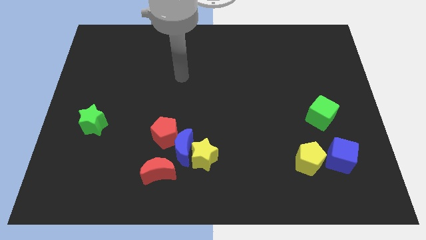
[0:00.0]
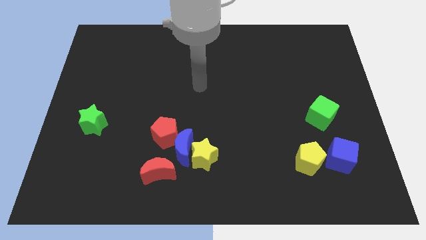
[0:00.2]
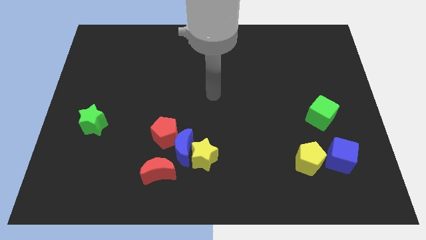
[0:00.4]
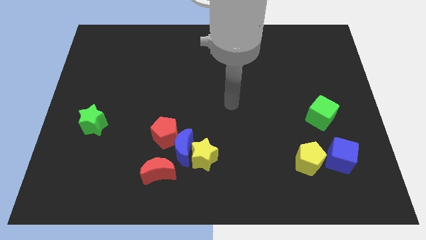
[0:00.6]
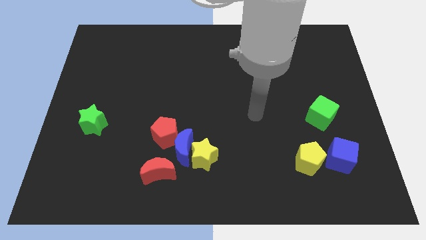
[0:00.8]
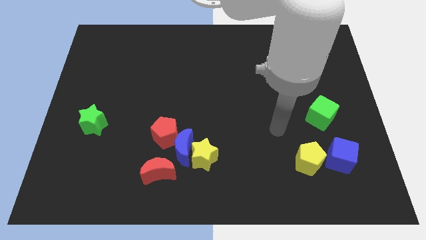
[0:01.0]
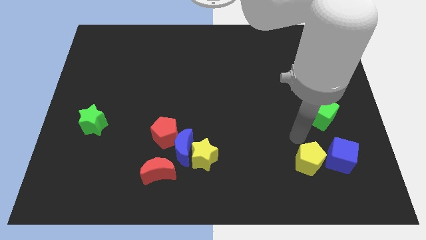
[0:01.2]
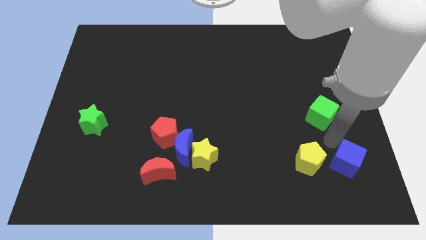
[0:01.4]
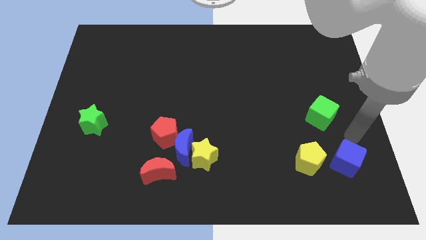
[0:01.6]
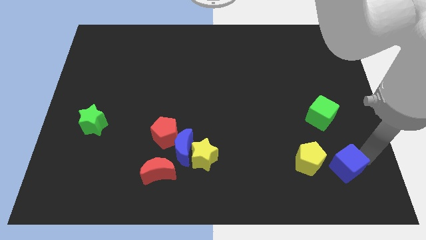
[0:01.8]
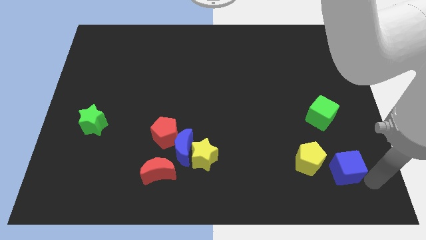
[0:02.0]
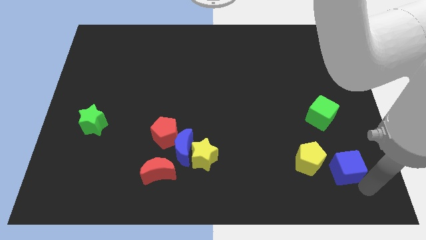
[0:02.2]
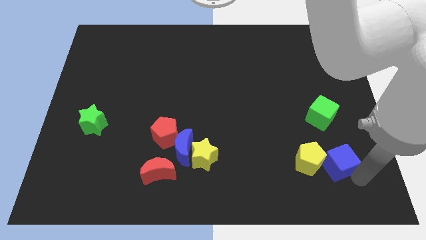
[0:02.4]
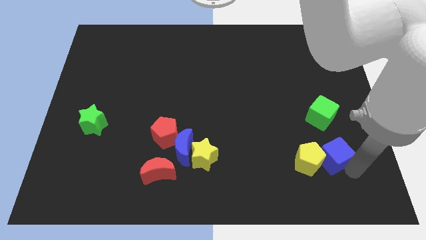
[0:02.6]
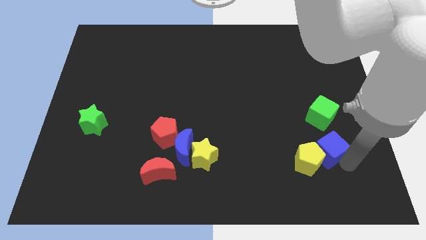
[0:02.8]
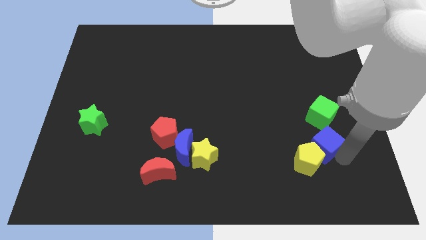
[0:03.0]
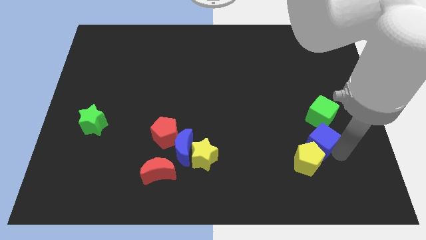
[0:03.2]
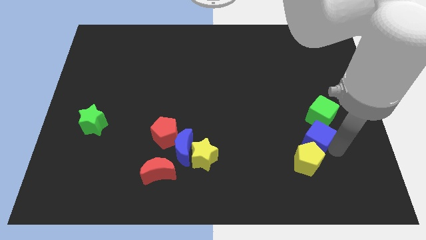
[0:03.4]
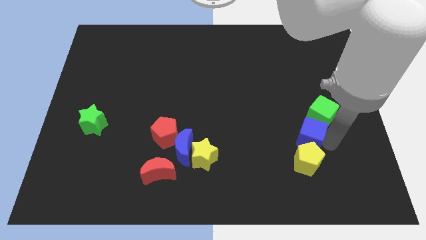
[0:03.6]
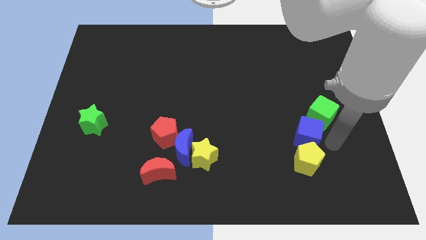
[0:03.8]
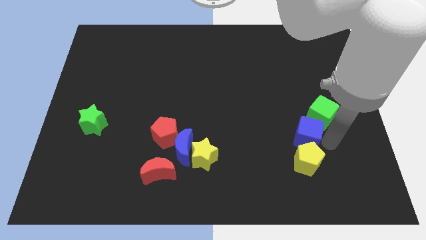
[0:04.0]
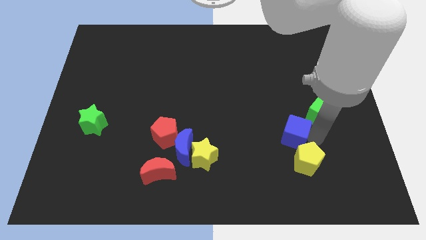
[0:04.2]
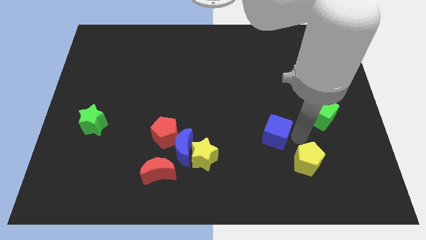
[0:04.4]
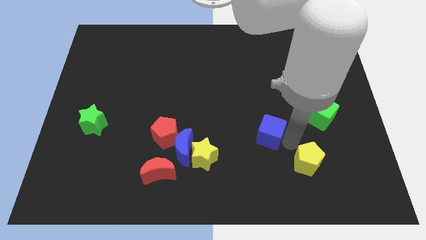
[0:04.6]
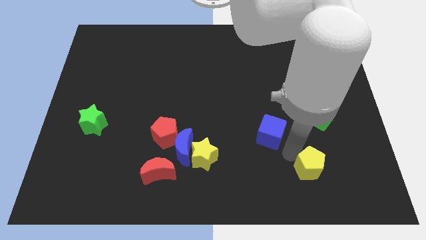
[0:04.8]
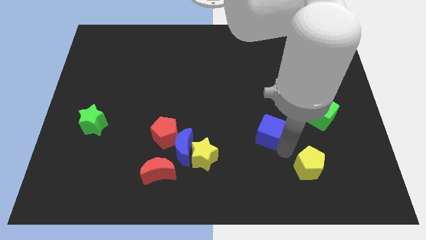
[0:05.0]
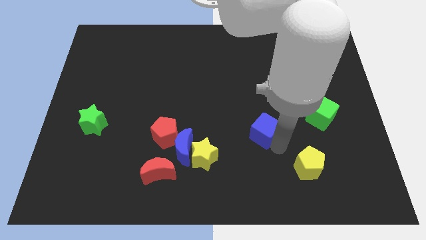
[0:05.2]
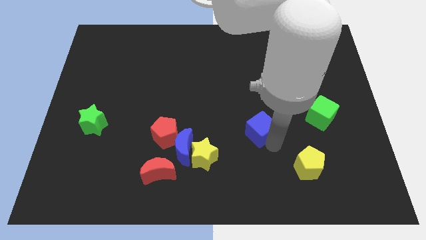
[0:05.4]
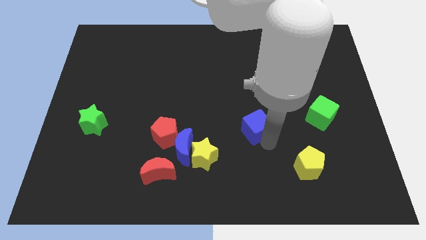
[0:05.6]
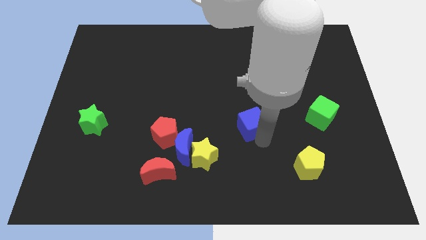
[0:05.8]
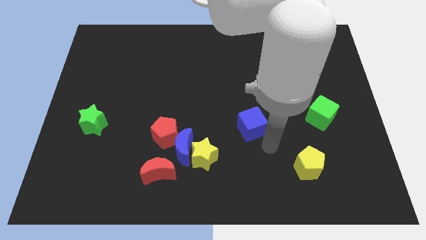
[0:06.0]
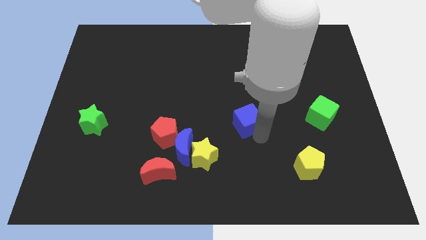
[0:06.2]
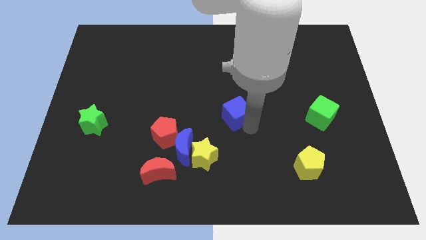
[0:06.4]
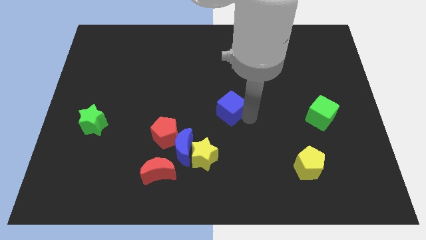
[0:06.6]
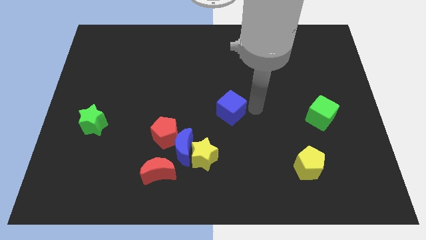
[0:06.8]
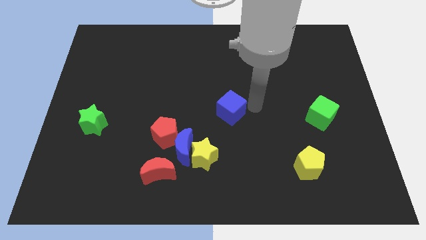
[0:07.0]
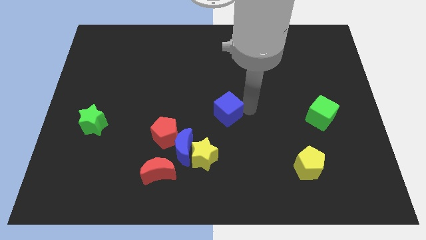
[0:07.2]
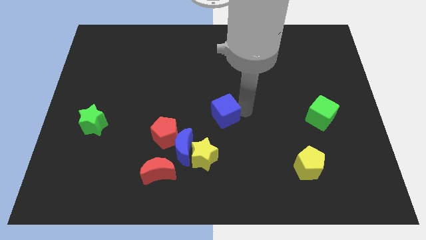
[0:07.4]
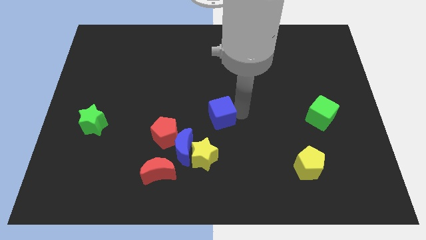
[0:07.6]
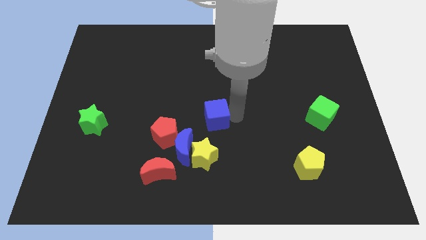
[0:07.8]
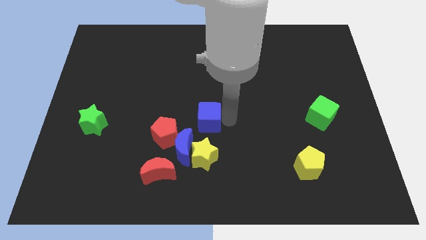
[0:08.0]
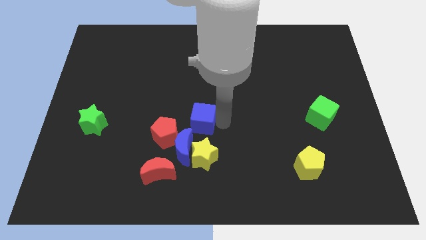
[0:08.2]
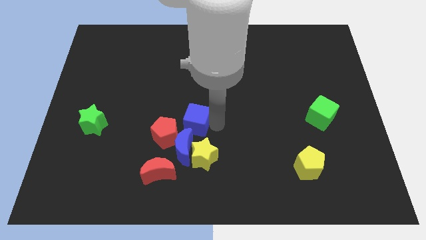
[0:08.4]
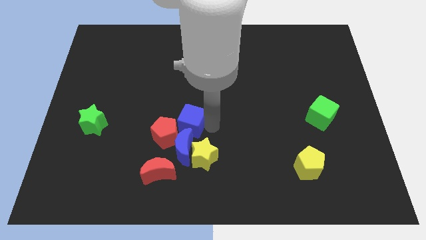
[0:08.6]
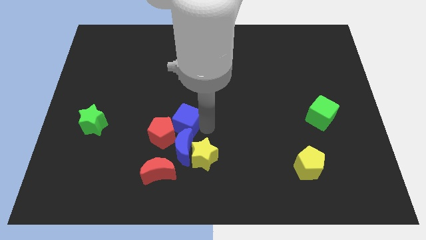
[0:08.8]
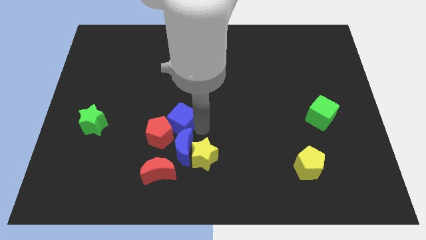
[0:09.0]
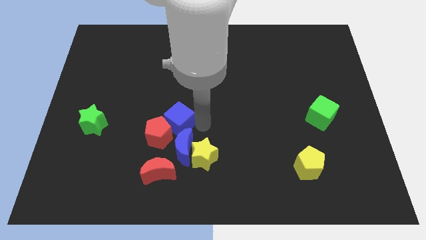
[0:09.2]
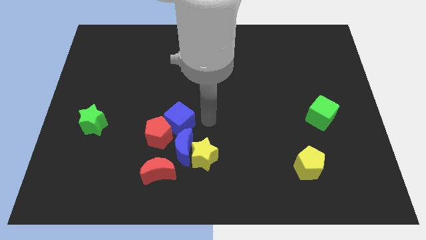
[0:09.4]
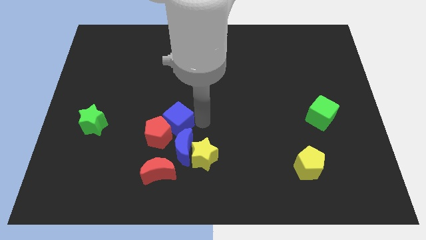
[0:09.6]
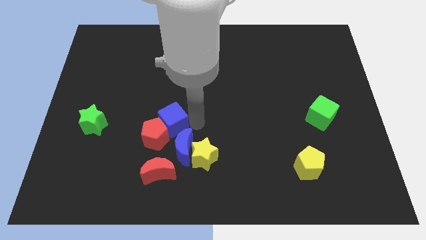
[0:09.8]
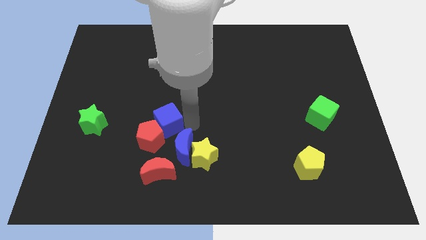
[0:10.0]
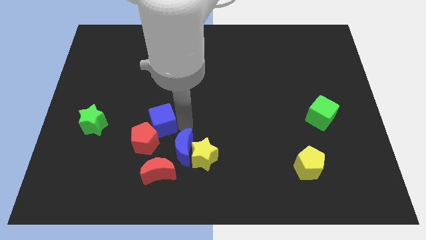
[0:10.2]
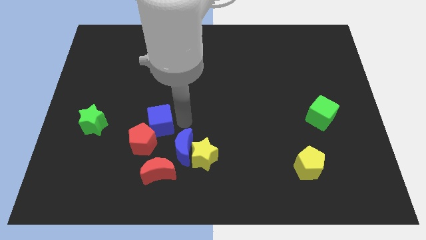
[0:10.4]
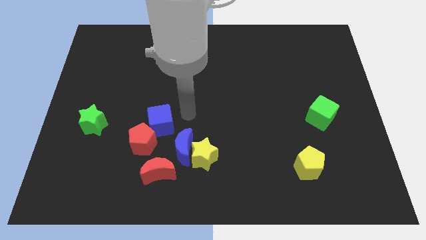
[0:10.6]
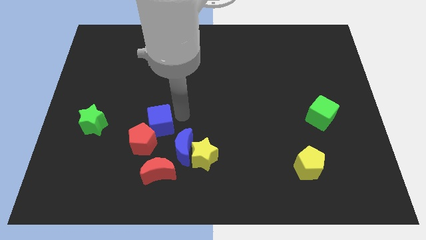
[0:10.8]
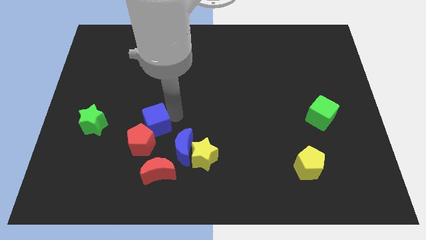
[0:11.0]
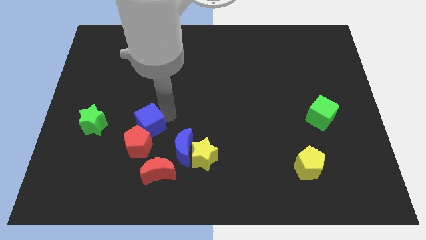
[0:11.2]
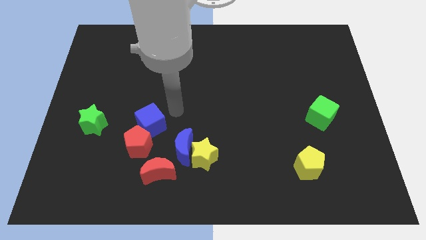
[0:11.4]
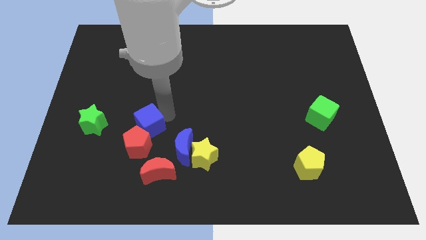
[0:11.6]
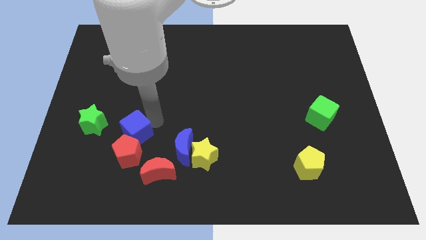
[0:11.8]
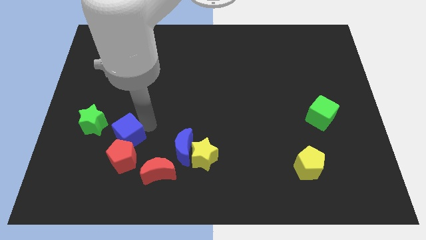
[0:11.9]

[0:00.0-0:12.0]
push the blue cube to the bottom right of the green star

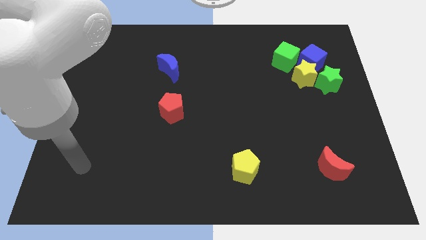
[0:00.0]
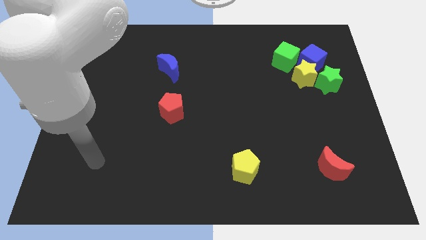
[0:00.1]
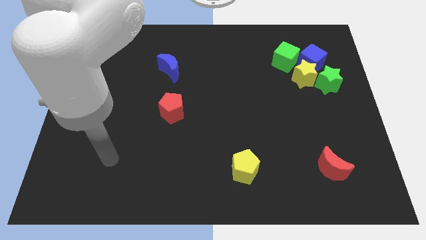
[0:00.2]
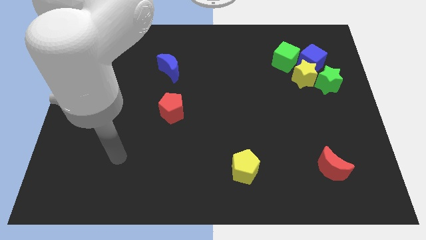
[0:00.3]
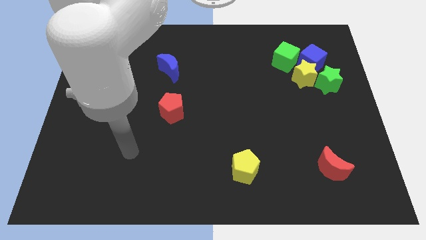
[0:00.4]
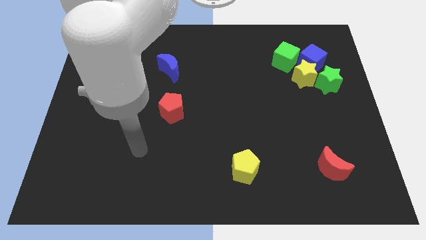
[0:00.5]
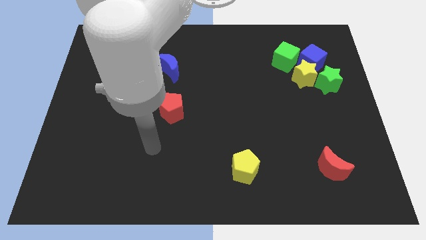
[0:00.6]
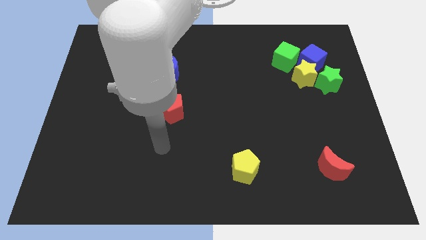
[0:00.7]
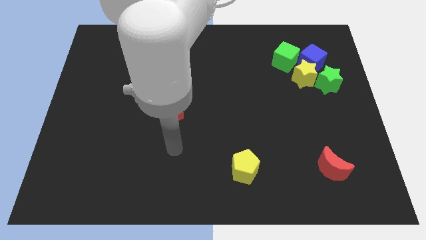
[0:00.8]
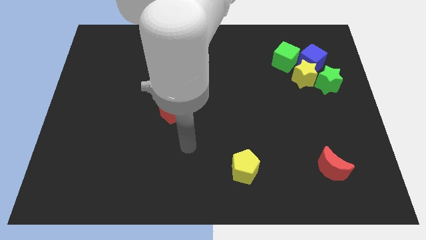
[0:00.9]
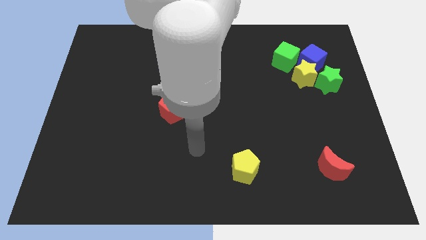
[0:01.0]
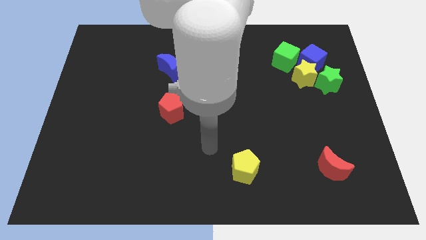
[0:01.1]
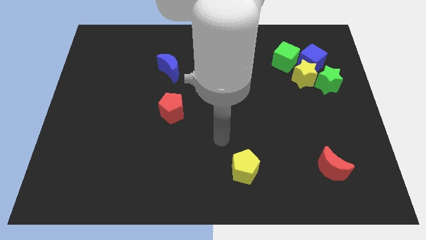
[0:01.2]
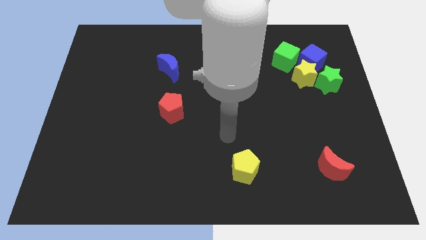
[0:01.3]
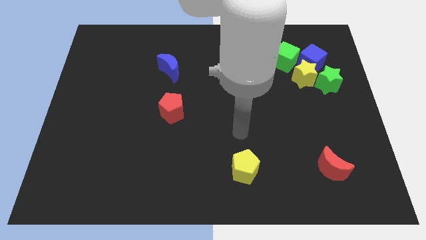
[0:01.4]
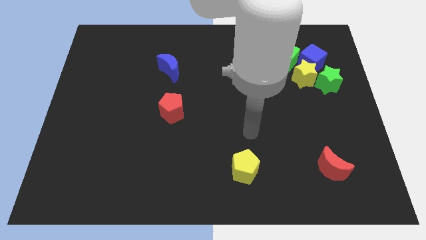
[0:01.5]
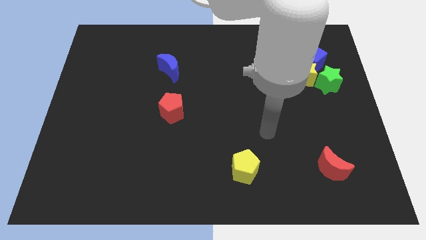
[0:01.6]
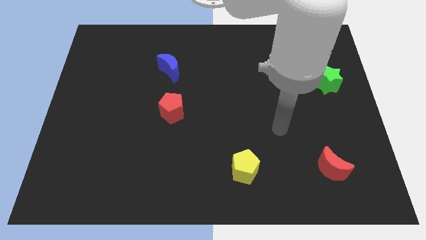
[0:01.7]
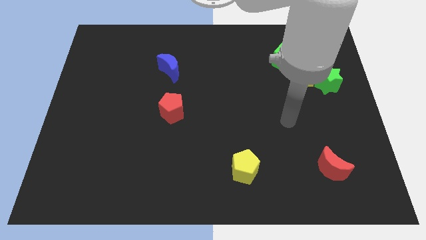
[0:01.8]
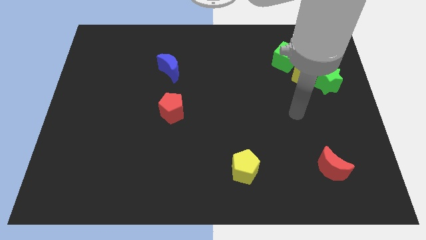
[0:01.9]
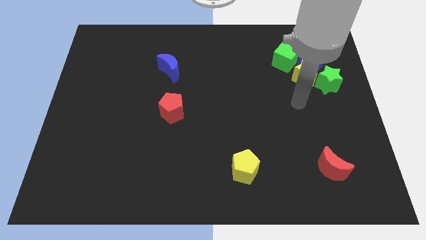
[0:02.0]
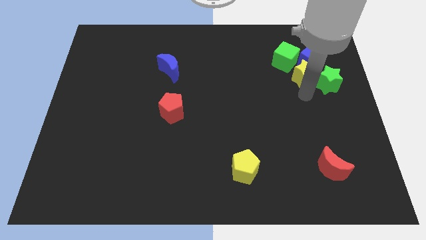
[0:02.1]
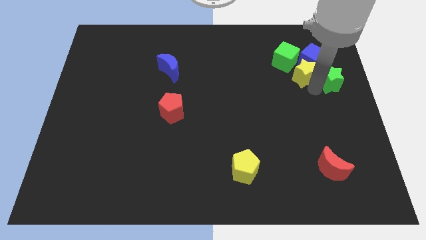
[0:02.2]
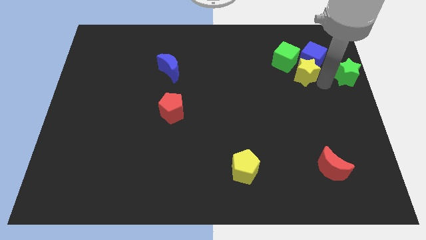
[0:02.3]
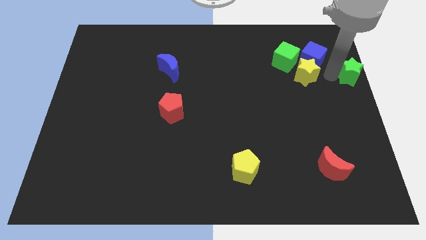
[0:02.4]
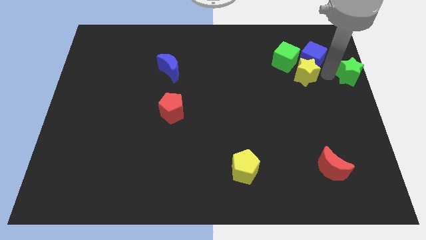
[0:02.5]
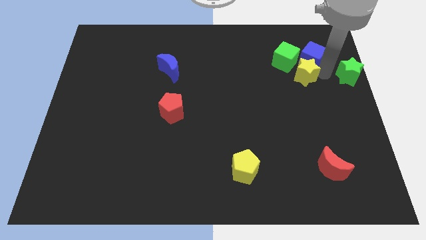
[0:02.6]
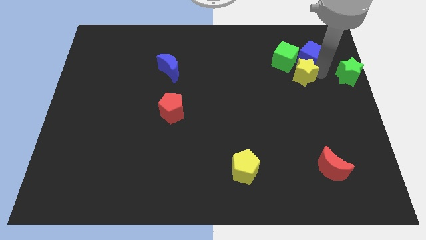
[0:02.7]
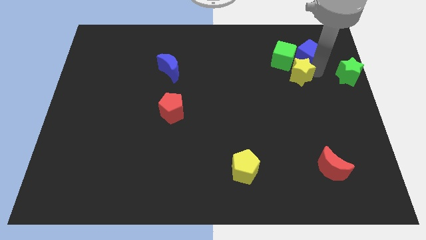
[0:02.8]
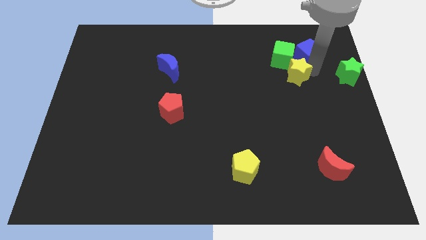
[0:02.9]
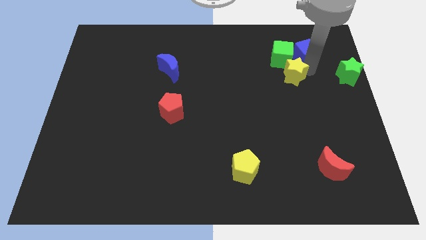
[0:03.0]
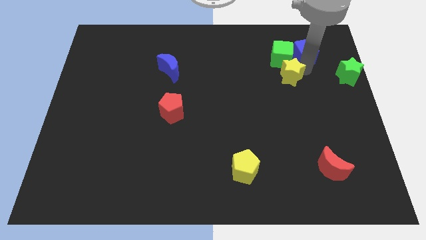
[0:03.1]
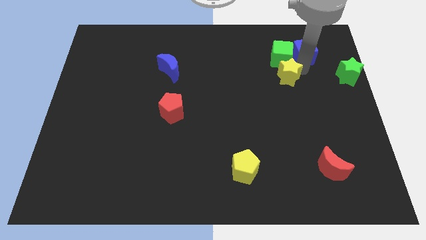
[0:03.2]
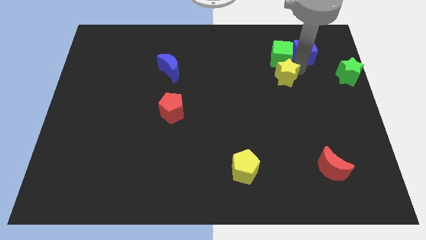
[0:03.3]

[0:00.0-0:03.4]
slide the yellow star to the bottom left of the green cube
